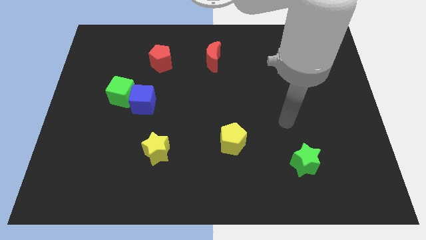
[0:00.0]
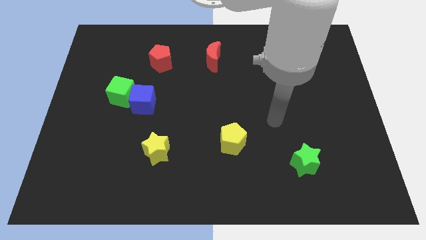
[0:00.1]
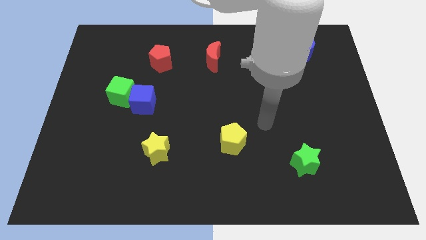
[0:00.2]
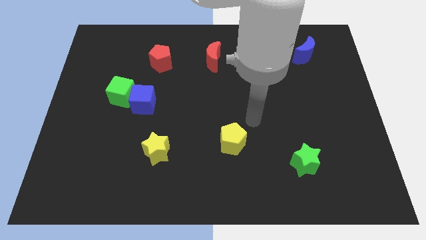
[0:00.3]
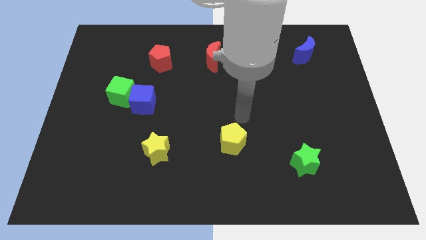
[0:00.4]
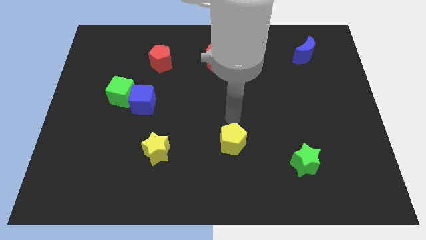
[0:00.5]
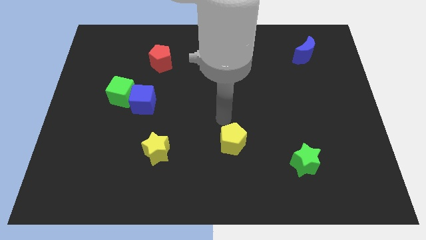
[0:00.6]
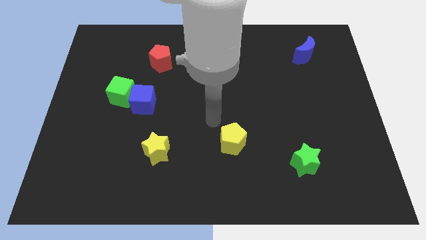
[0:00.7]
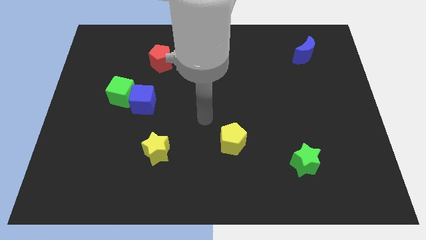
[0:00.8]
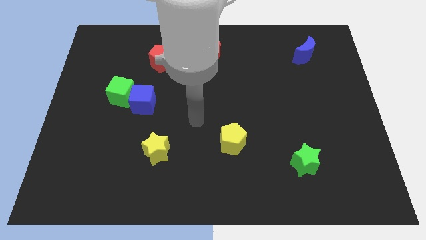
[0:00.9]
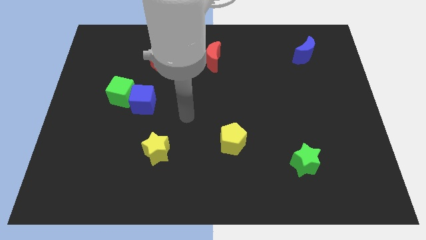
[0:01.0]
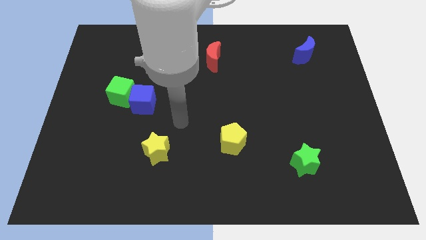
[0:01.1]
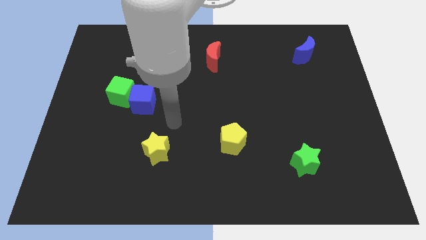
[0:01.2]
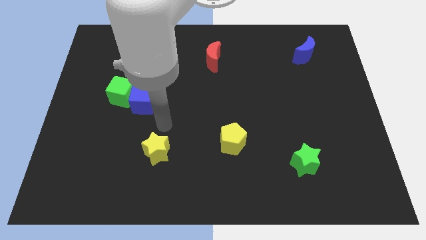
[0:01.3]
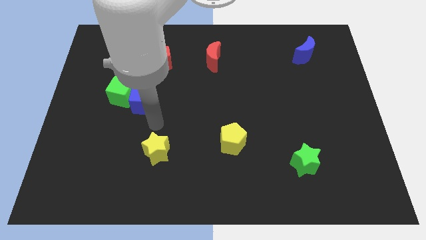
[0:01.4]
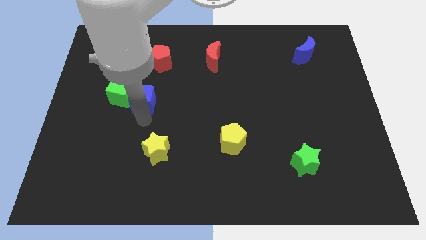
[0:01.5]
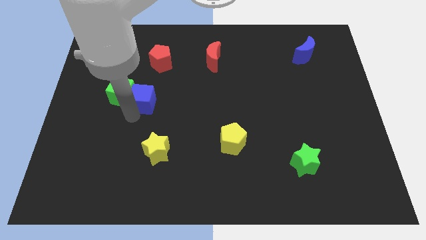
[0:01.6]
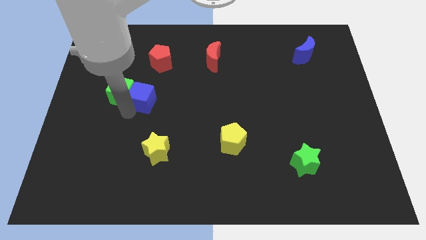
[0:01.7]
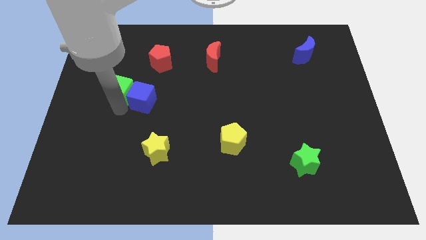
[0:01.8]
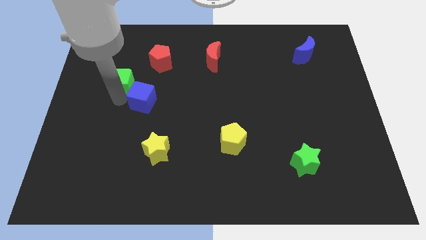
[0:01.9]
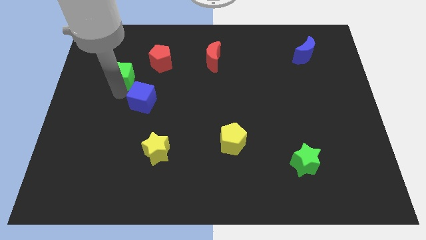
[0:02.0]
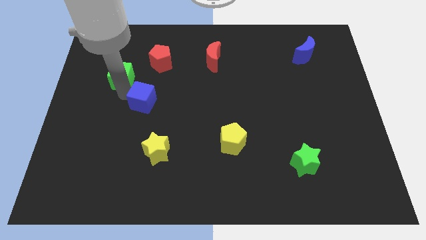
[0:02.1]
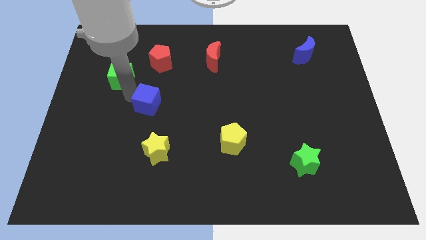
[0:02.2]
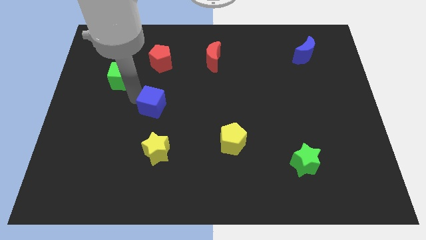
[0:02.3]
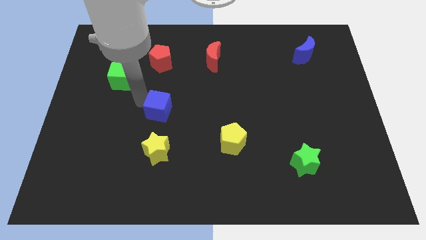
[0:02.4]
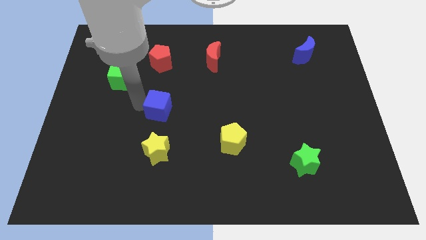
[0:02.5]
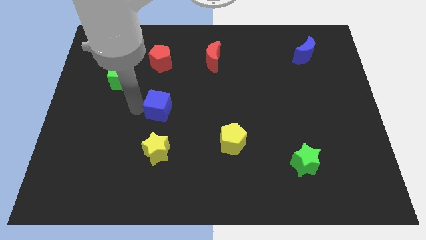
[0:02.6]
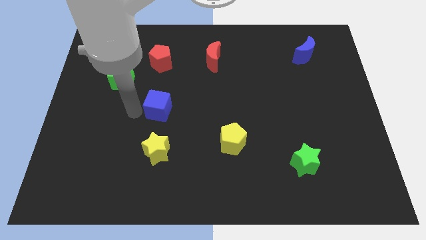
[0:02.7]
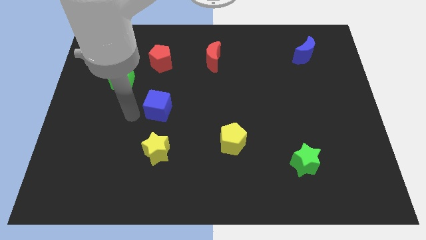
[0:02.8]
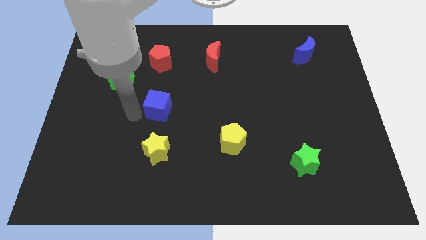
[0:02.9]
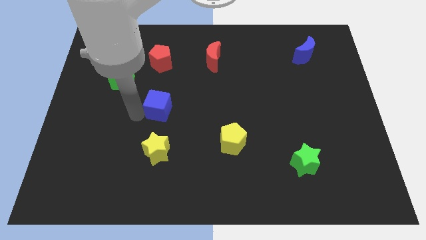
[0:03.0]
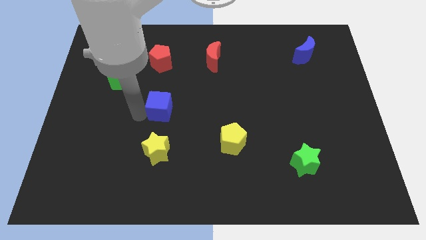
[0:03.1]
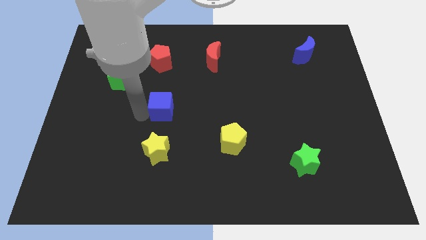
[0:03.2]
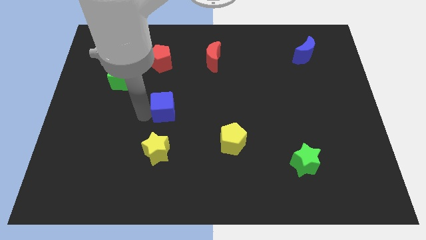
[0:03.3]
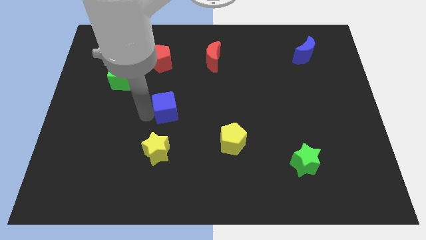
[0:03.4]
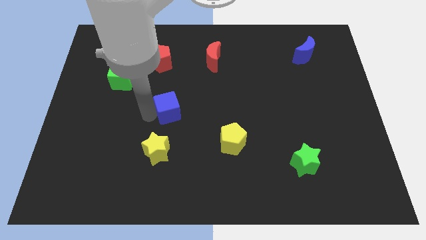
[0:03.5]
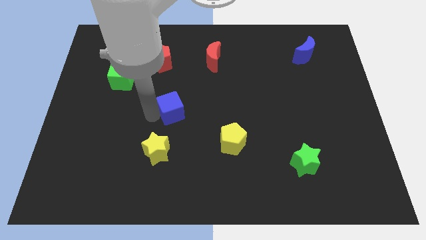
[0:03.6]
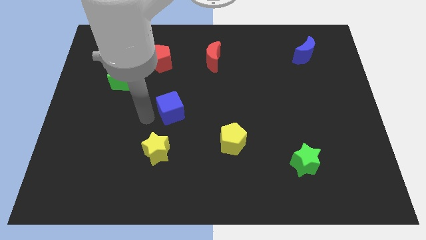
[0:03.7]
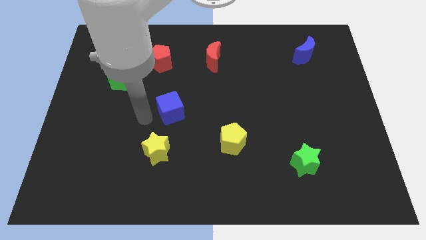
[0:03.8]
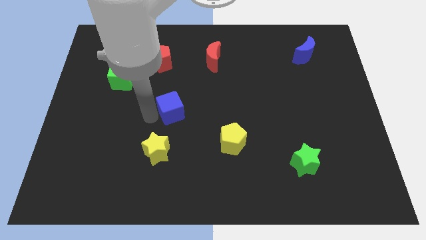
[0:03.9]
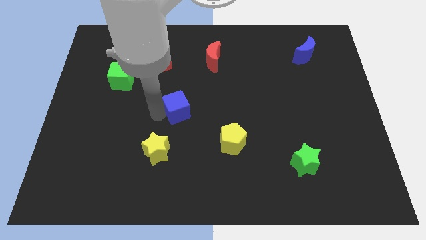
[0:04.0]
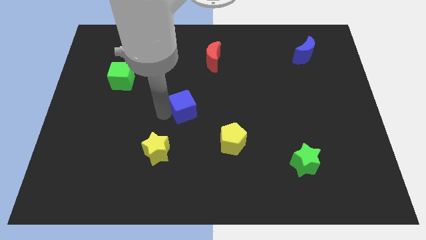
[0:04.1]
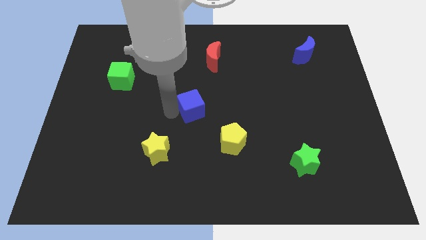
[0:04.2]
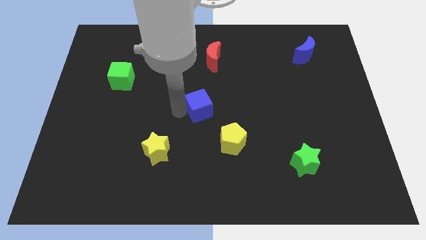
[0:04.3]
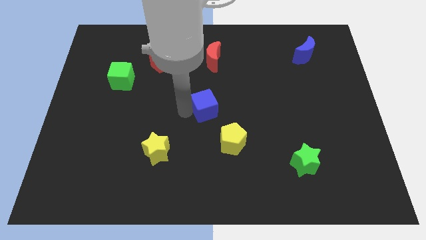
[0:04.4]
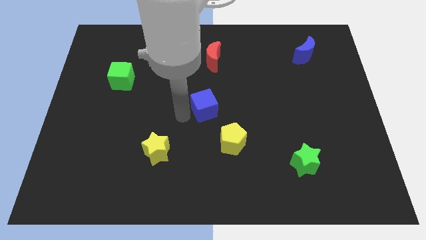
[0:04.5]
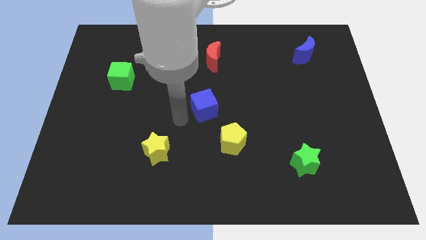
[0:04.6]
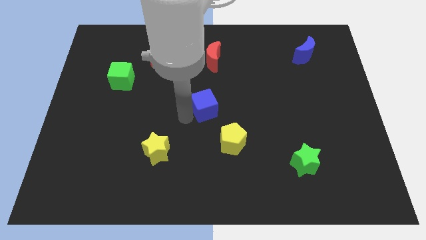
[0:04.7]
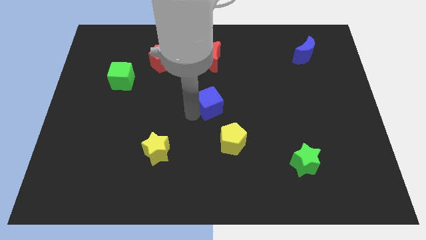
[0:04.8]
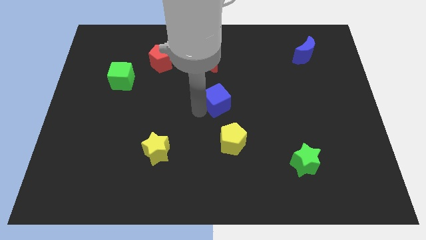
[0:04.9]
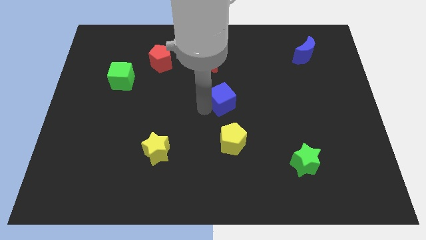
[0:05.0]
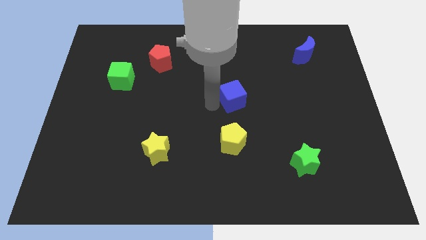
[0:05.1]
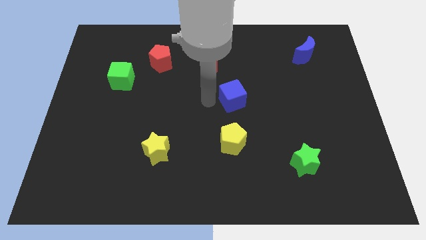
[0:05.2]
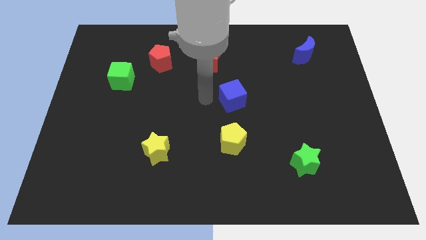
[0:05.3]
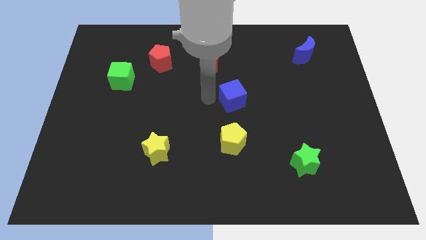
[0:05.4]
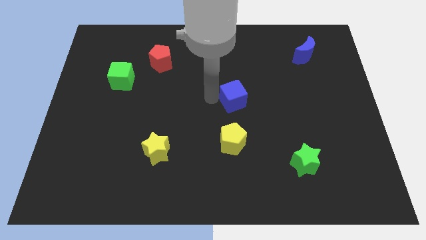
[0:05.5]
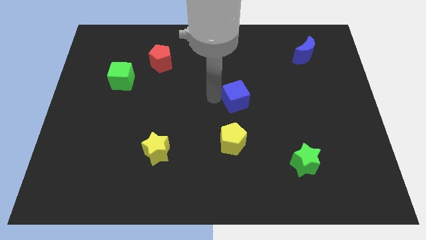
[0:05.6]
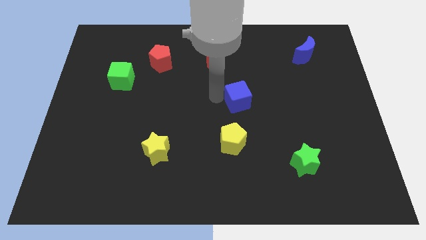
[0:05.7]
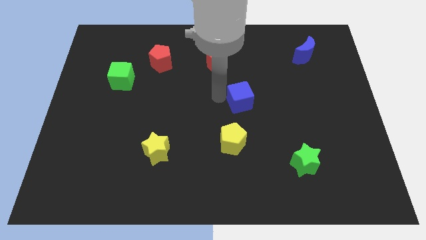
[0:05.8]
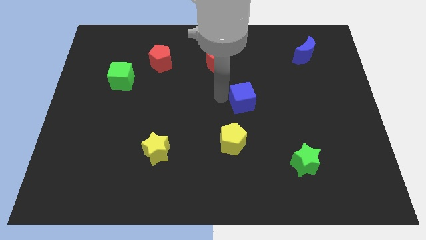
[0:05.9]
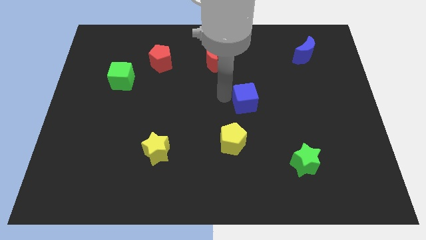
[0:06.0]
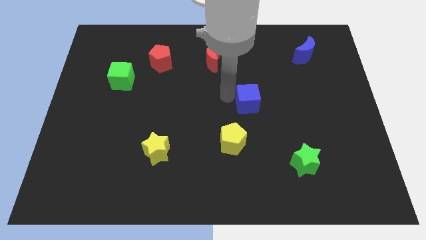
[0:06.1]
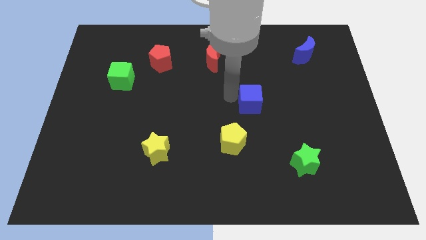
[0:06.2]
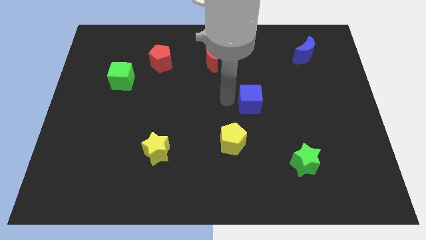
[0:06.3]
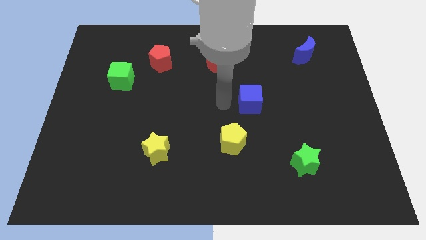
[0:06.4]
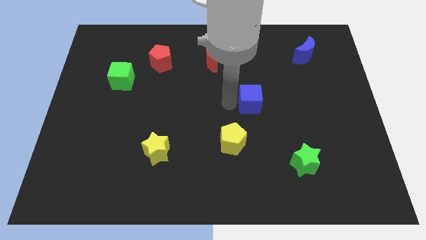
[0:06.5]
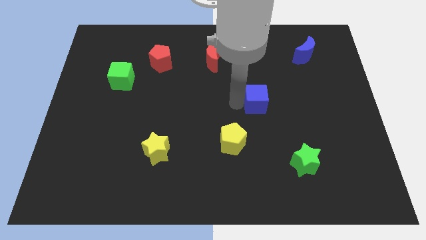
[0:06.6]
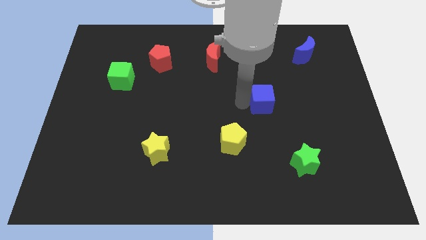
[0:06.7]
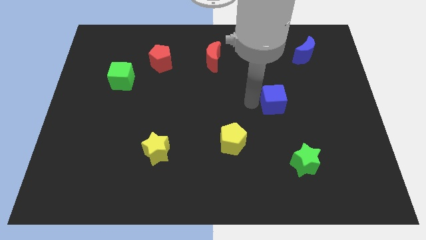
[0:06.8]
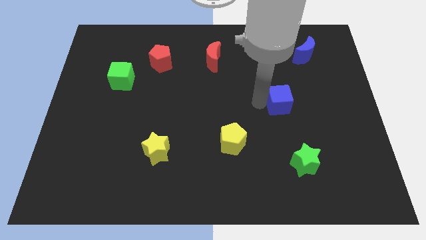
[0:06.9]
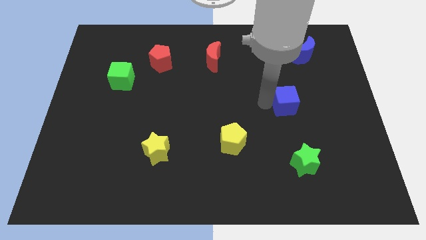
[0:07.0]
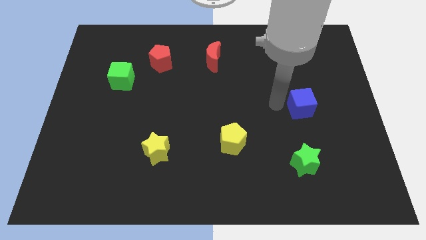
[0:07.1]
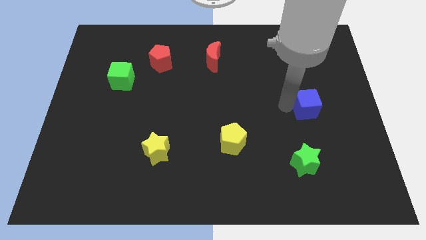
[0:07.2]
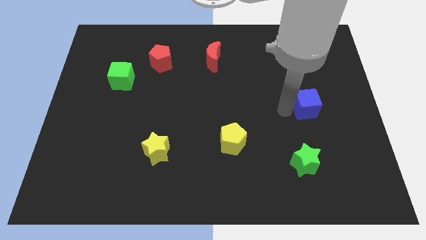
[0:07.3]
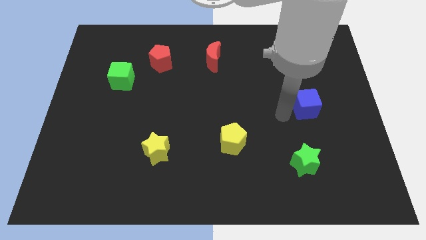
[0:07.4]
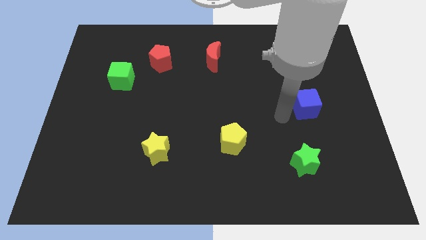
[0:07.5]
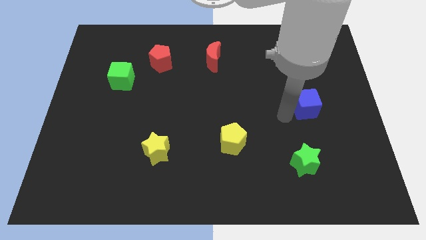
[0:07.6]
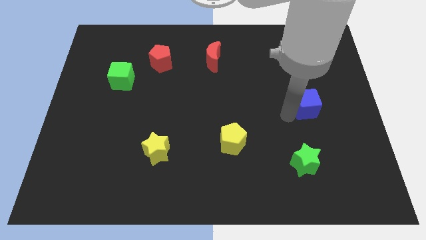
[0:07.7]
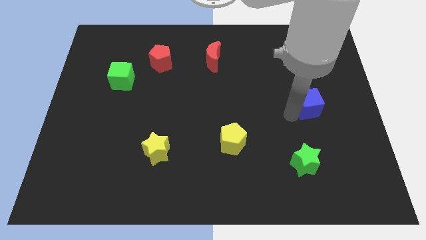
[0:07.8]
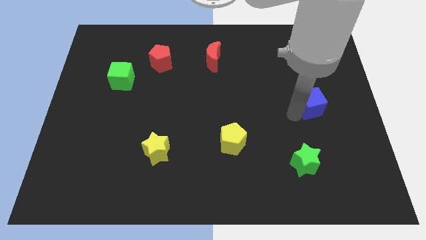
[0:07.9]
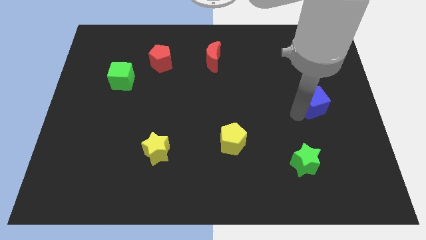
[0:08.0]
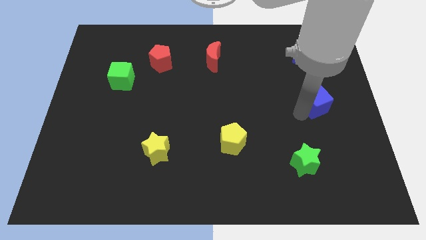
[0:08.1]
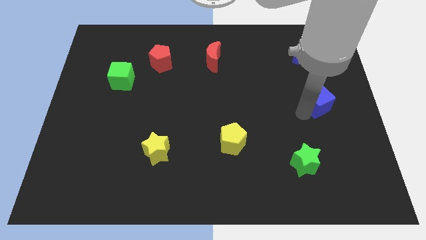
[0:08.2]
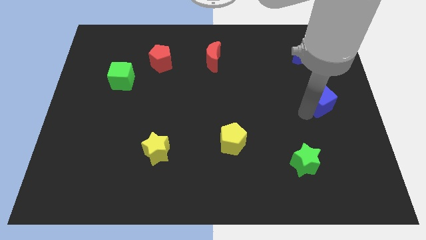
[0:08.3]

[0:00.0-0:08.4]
move the blue cube to the center right
